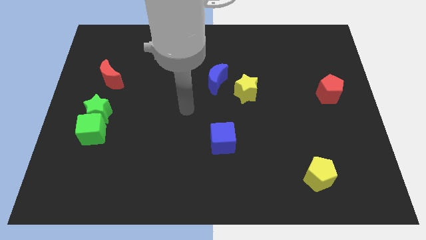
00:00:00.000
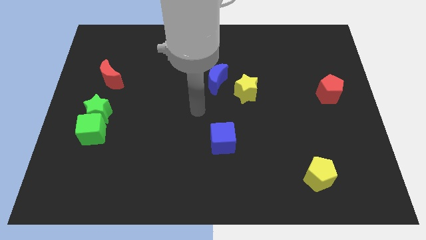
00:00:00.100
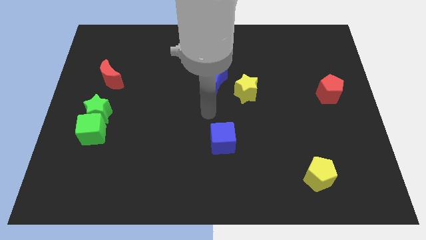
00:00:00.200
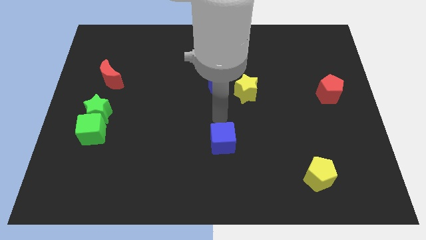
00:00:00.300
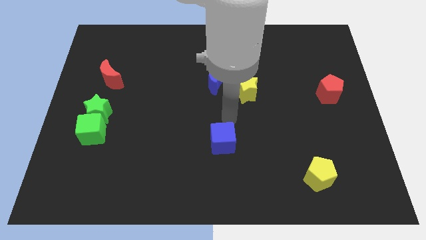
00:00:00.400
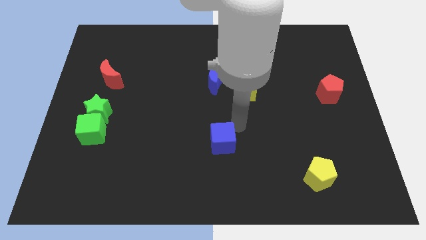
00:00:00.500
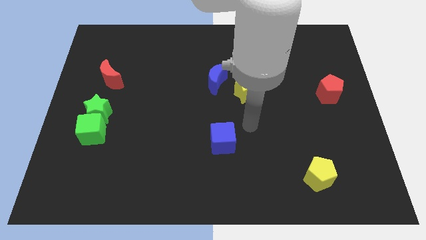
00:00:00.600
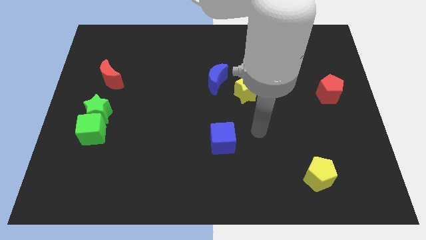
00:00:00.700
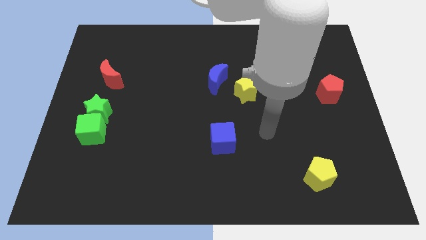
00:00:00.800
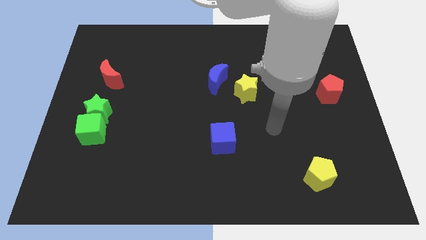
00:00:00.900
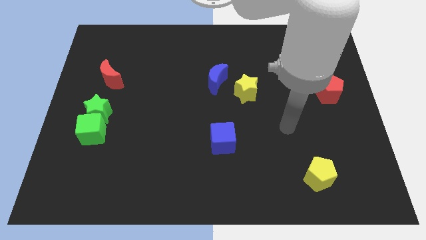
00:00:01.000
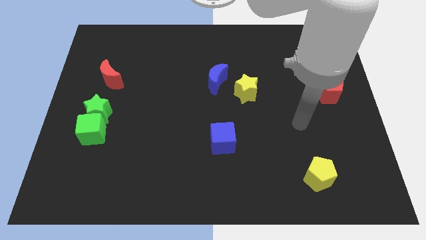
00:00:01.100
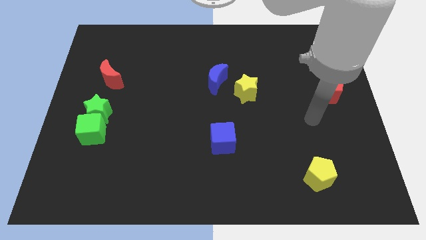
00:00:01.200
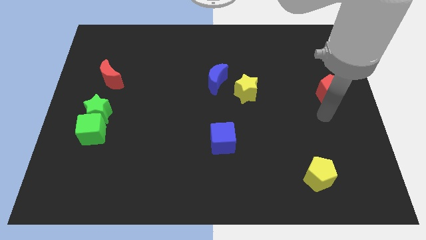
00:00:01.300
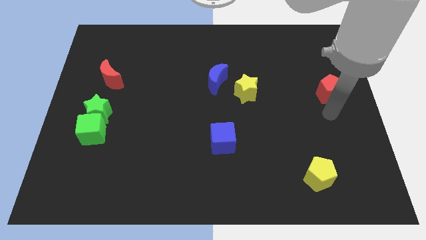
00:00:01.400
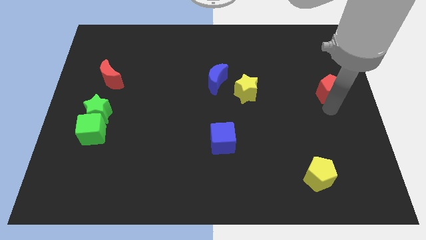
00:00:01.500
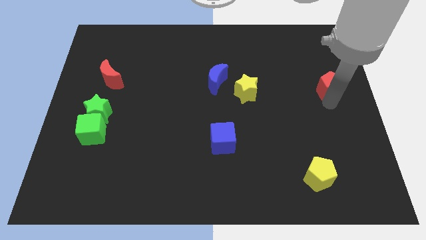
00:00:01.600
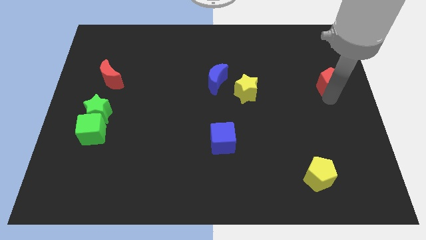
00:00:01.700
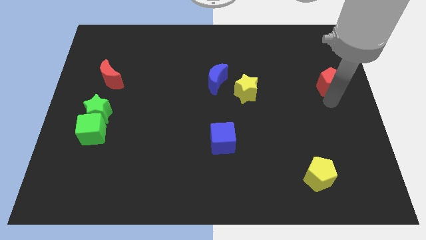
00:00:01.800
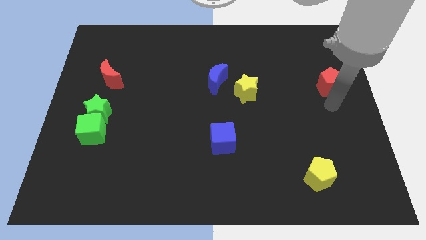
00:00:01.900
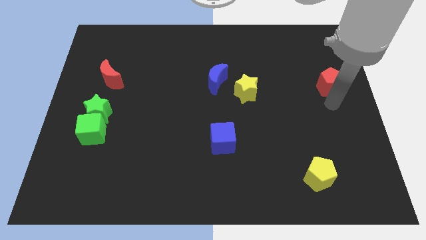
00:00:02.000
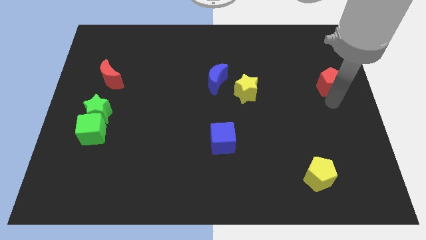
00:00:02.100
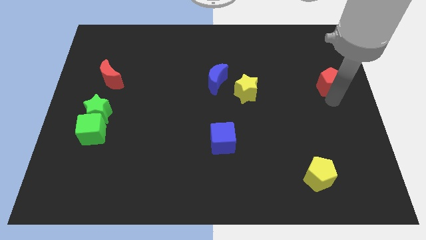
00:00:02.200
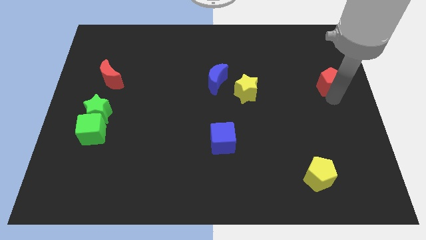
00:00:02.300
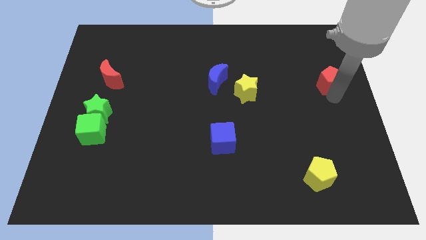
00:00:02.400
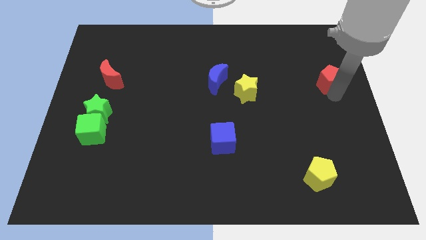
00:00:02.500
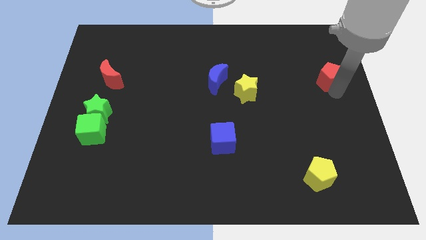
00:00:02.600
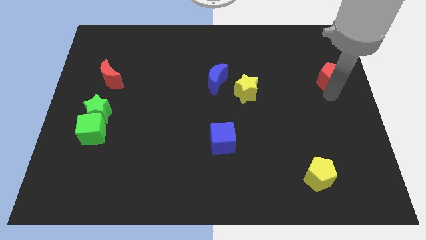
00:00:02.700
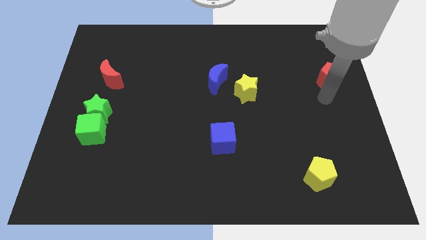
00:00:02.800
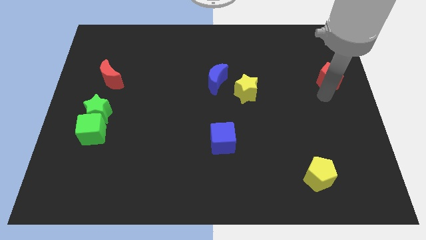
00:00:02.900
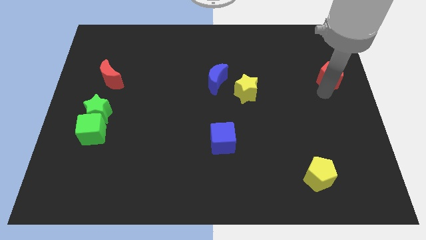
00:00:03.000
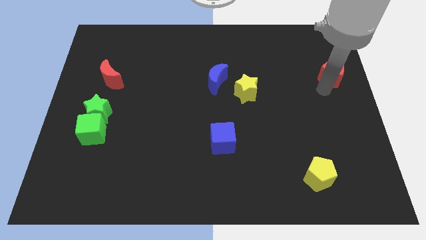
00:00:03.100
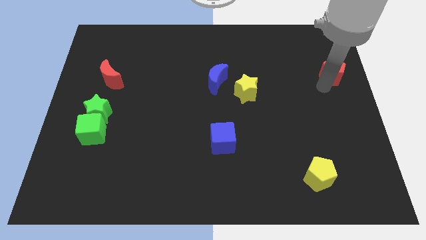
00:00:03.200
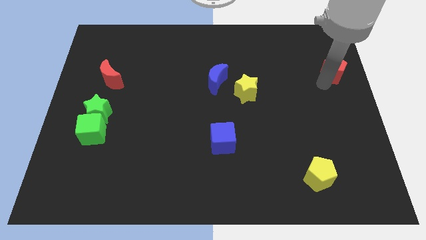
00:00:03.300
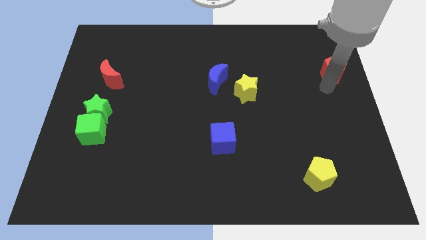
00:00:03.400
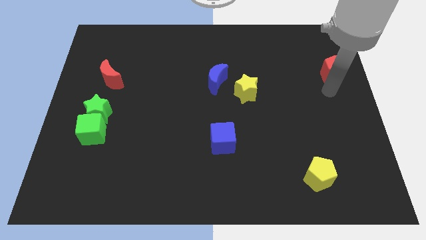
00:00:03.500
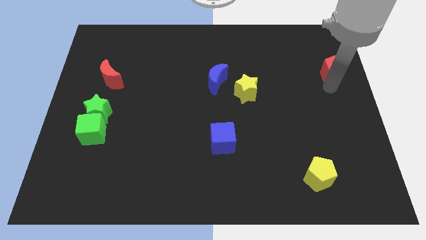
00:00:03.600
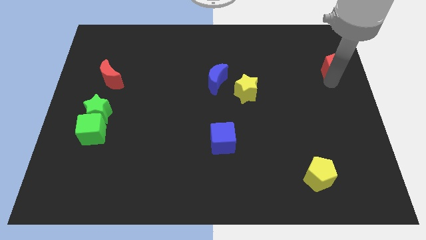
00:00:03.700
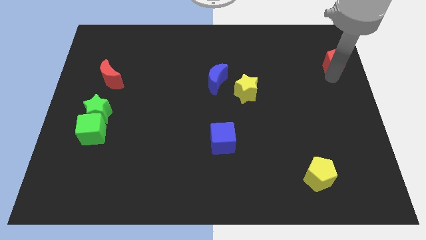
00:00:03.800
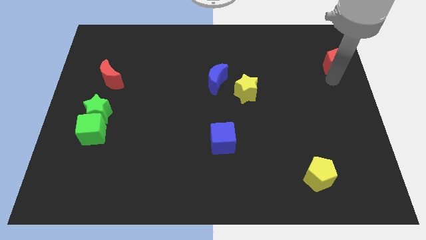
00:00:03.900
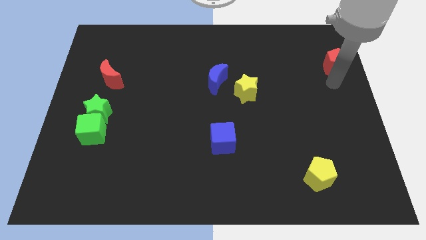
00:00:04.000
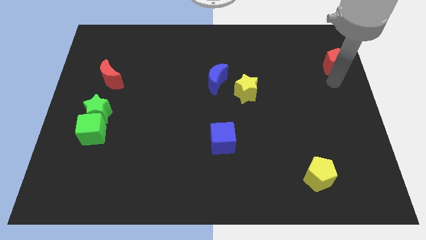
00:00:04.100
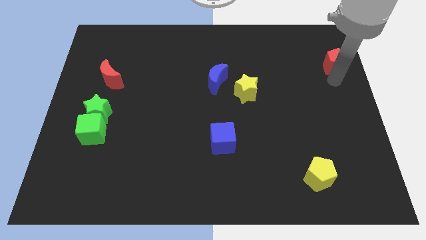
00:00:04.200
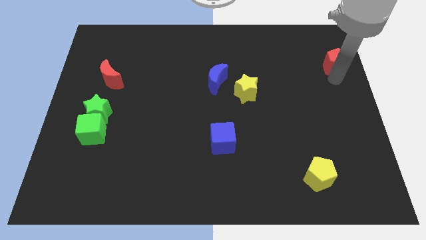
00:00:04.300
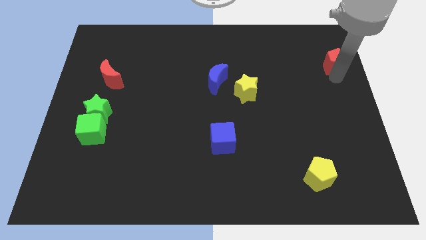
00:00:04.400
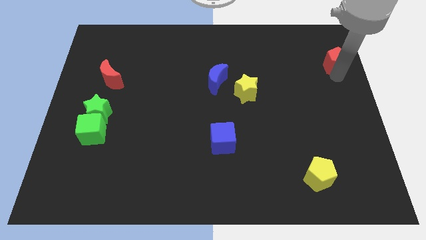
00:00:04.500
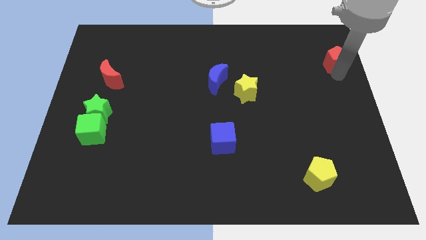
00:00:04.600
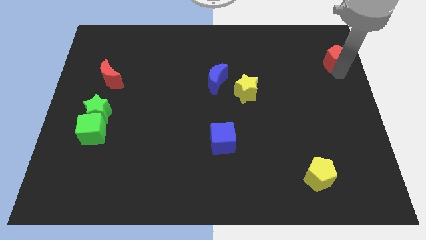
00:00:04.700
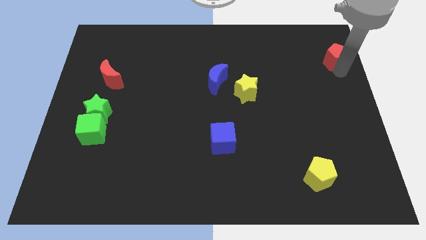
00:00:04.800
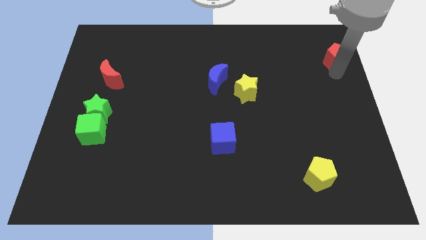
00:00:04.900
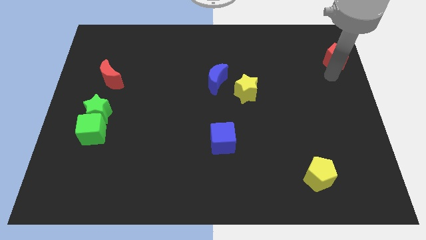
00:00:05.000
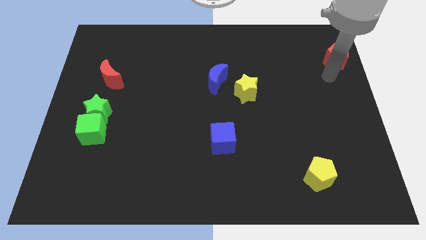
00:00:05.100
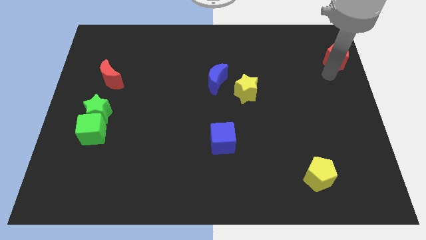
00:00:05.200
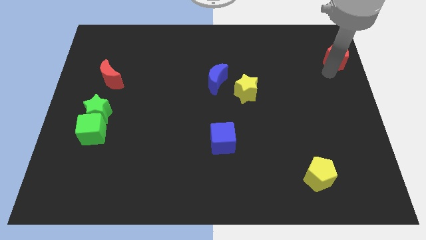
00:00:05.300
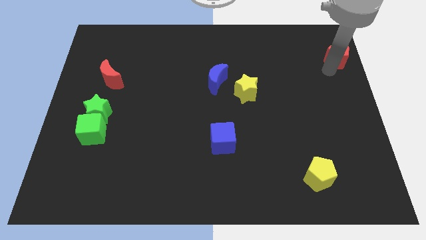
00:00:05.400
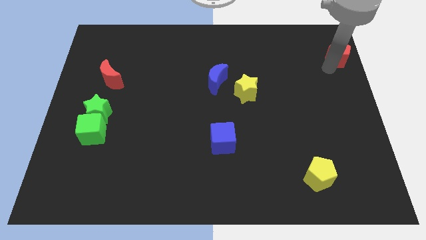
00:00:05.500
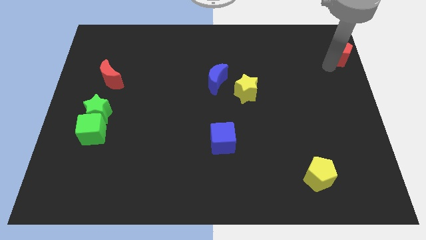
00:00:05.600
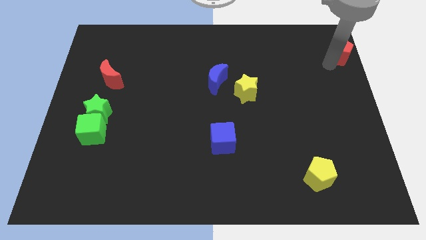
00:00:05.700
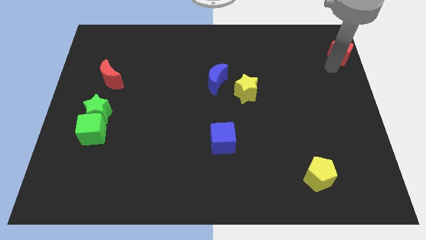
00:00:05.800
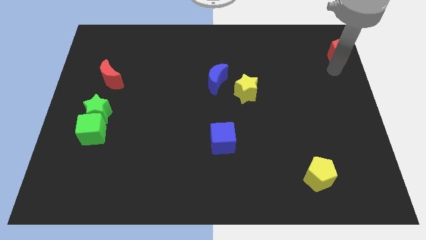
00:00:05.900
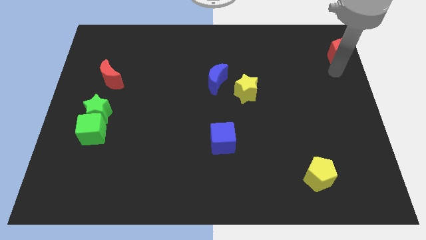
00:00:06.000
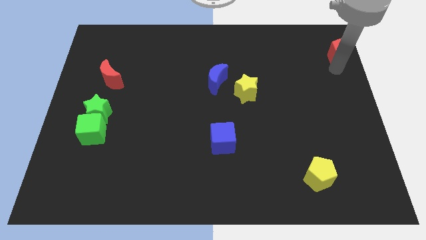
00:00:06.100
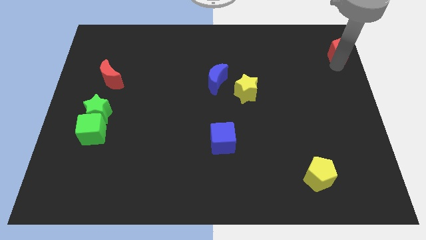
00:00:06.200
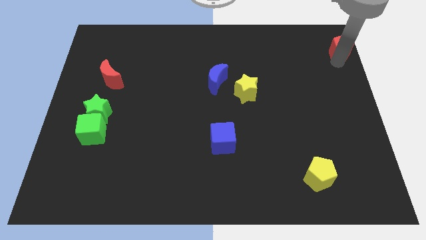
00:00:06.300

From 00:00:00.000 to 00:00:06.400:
push the red pentagon to the top right of the board

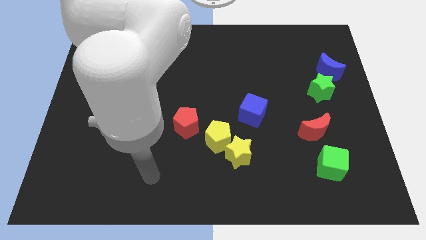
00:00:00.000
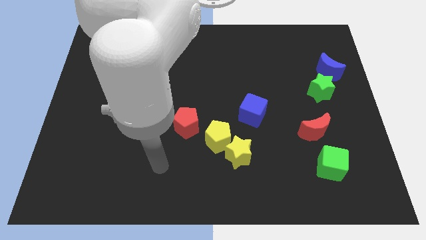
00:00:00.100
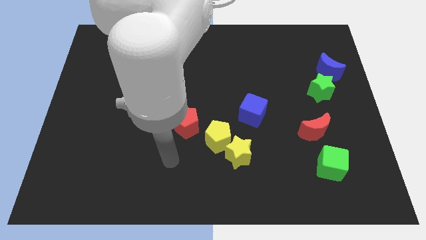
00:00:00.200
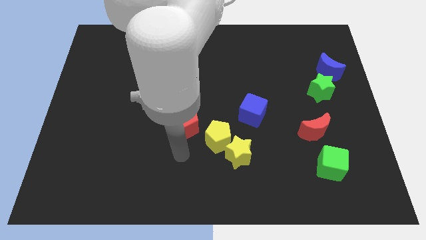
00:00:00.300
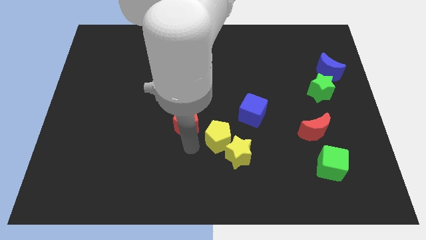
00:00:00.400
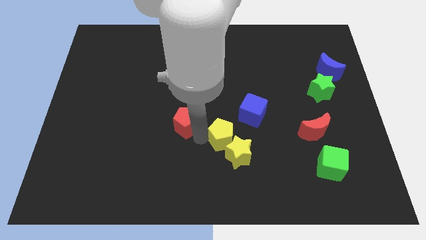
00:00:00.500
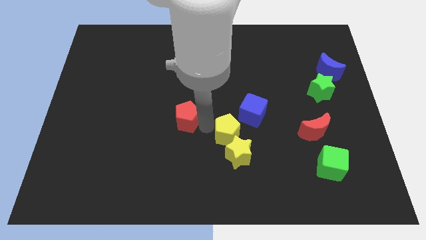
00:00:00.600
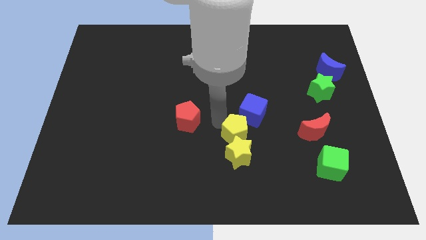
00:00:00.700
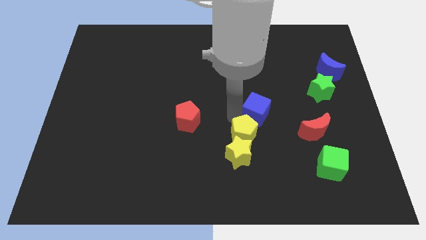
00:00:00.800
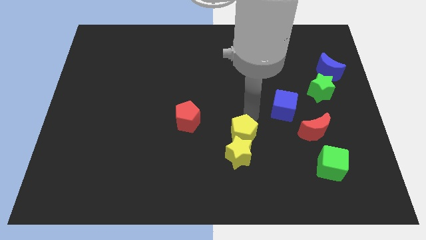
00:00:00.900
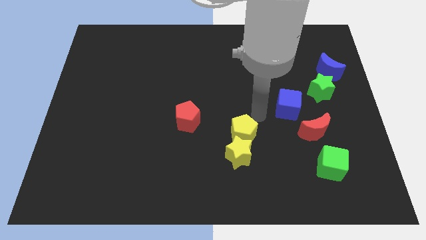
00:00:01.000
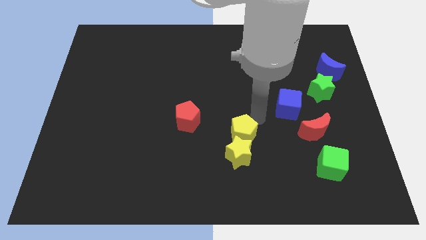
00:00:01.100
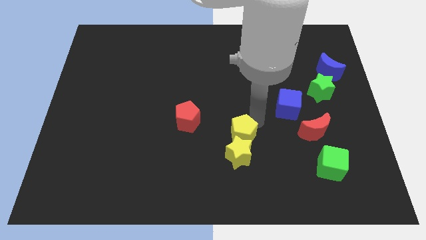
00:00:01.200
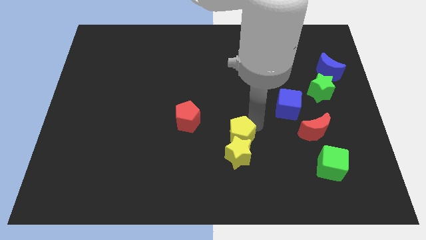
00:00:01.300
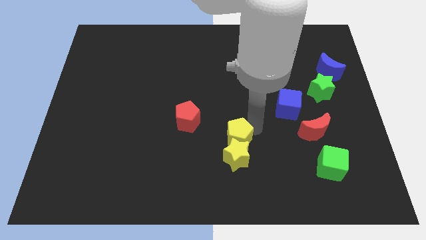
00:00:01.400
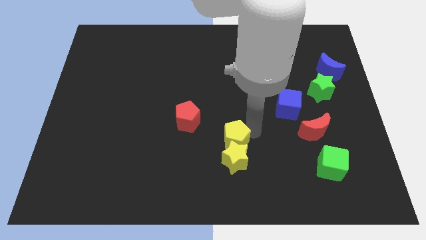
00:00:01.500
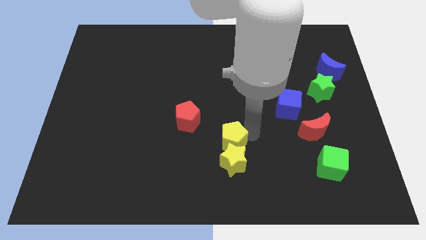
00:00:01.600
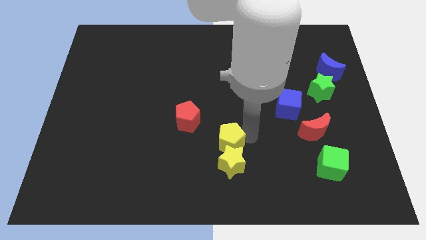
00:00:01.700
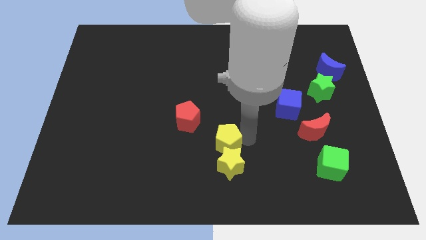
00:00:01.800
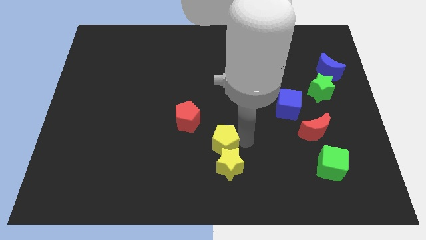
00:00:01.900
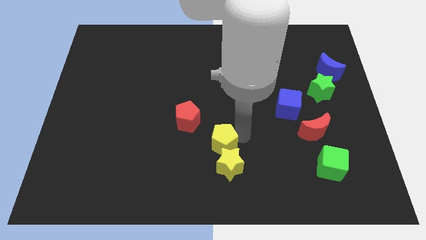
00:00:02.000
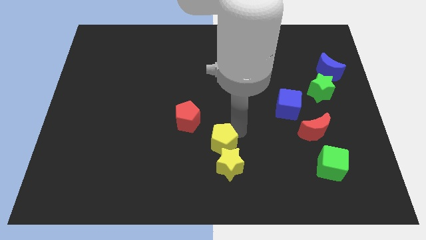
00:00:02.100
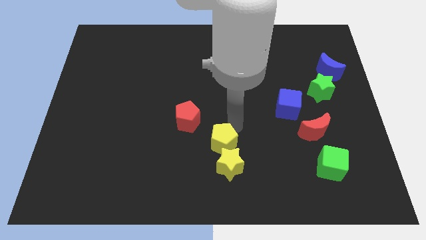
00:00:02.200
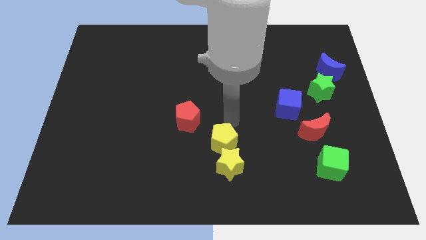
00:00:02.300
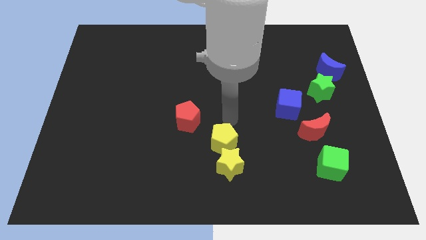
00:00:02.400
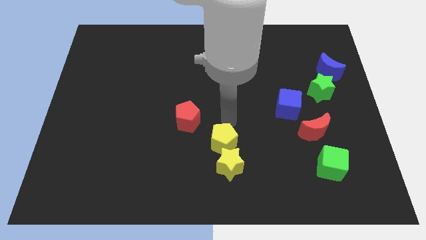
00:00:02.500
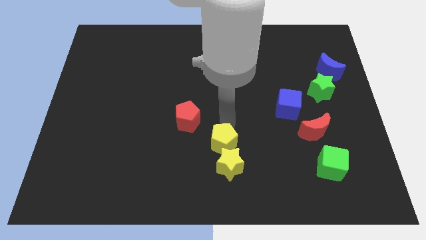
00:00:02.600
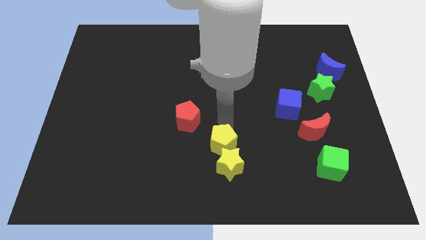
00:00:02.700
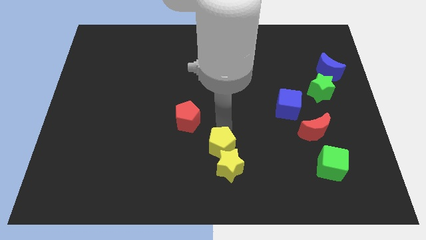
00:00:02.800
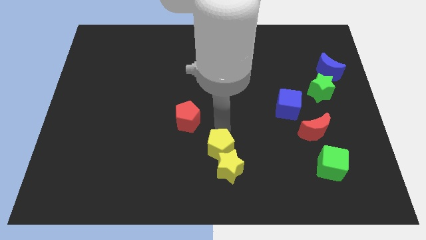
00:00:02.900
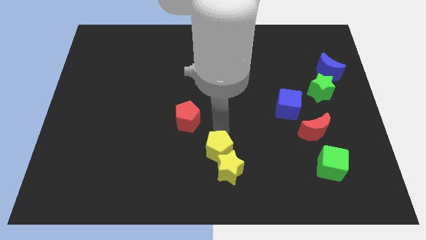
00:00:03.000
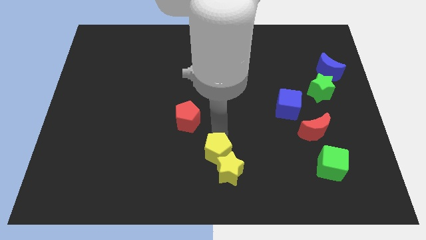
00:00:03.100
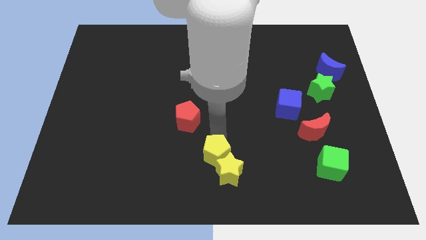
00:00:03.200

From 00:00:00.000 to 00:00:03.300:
push the yellow pentagon to the bottom
